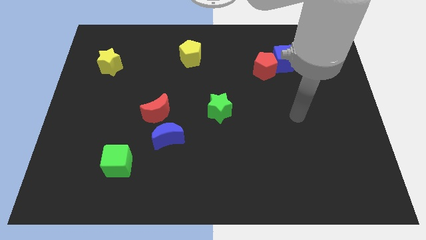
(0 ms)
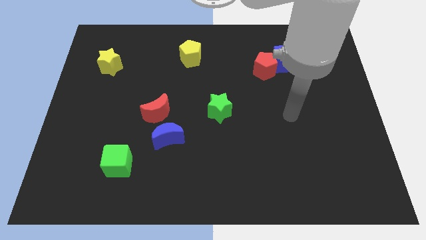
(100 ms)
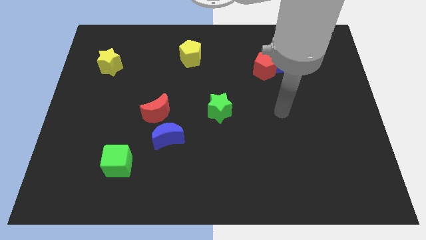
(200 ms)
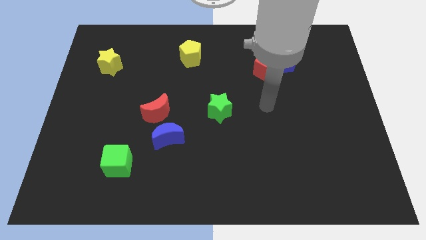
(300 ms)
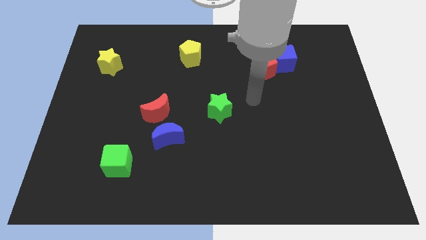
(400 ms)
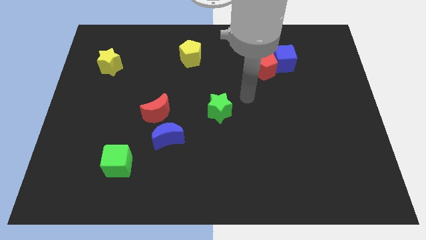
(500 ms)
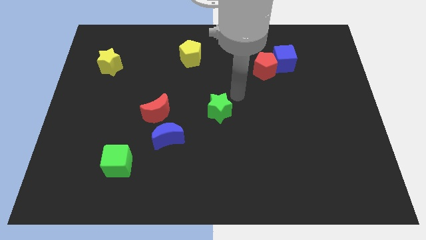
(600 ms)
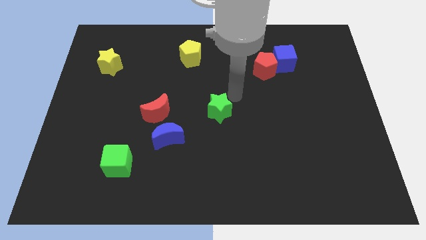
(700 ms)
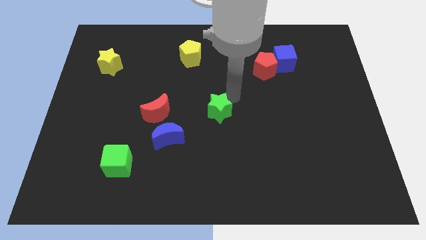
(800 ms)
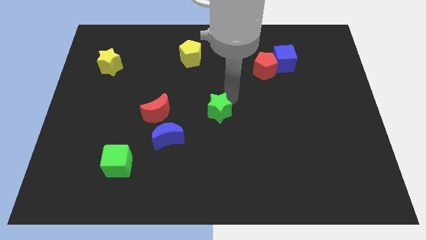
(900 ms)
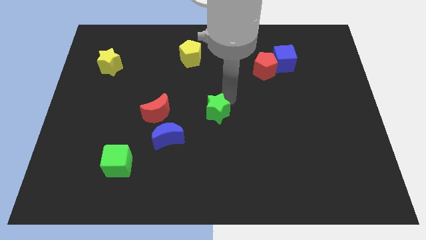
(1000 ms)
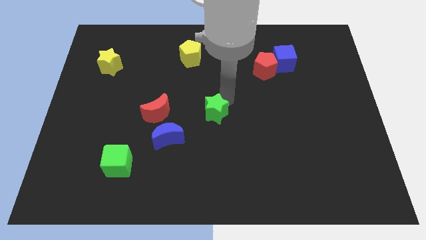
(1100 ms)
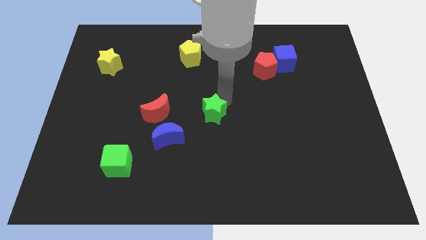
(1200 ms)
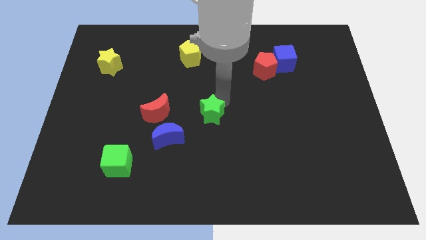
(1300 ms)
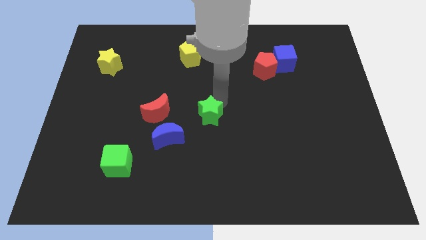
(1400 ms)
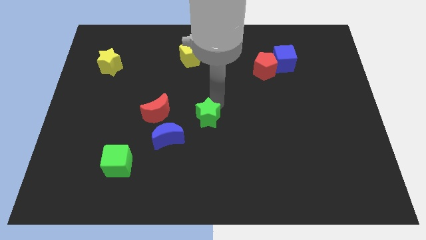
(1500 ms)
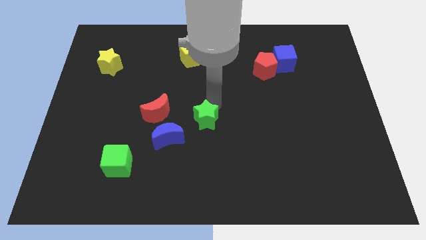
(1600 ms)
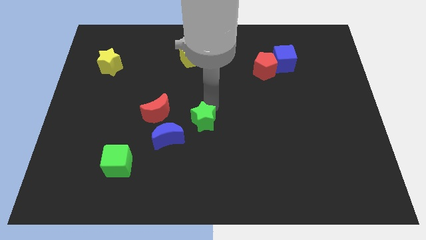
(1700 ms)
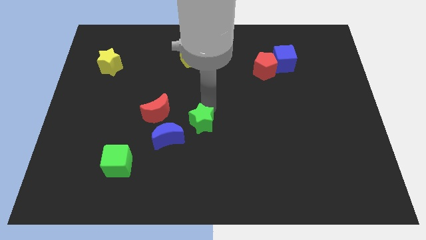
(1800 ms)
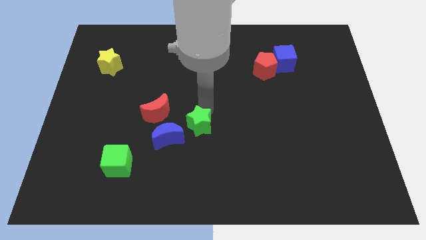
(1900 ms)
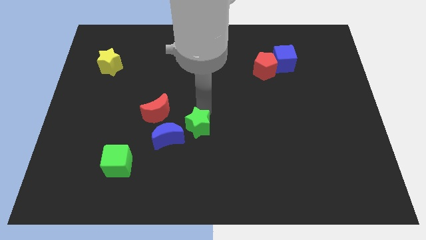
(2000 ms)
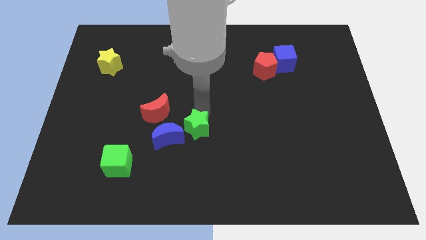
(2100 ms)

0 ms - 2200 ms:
slide the green star down and to the left diagonally slightly

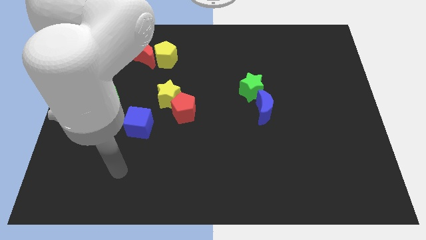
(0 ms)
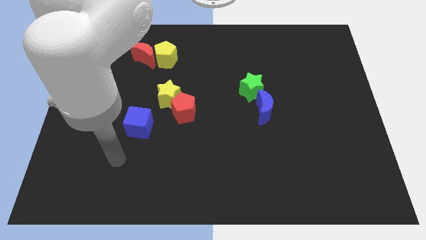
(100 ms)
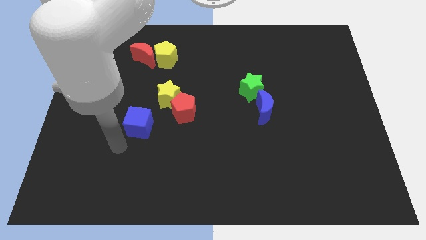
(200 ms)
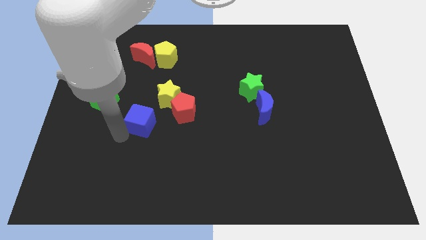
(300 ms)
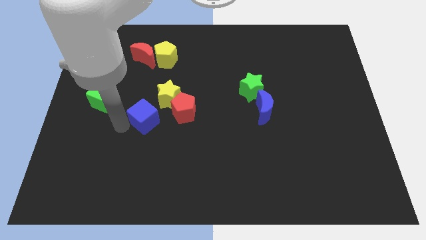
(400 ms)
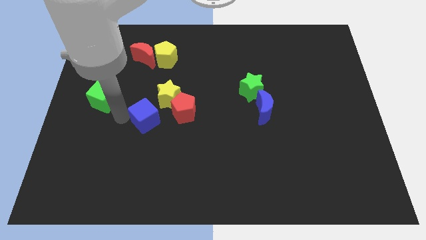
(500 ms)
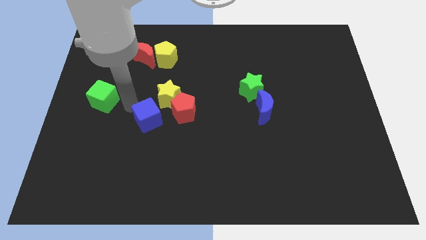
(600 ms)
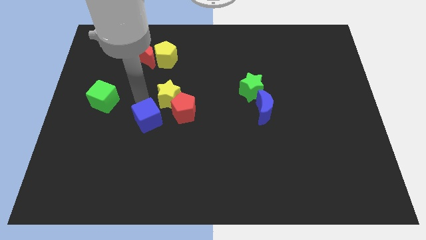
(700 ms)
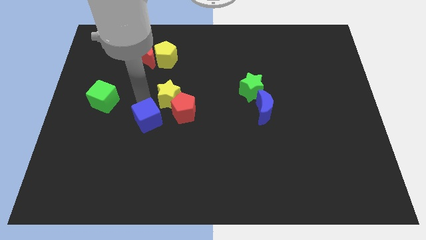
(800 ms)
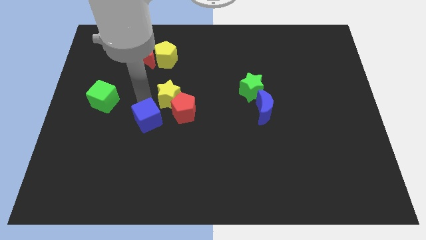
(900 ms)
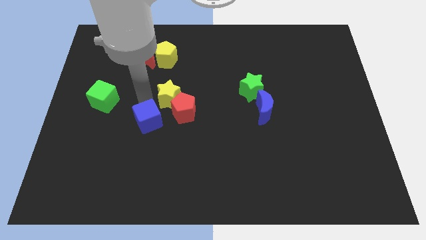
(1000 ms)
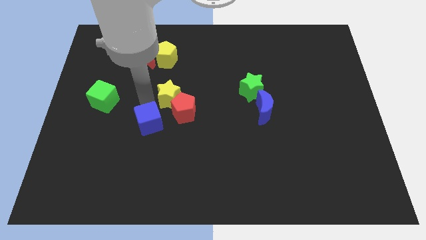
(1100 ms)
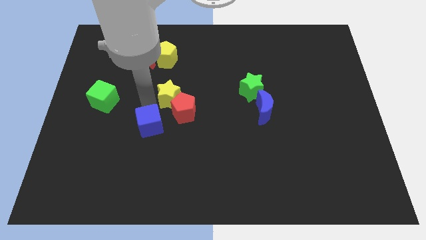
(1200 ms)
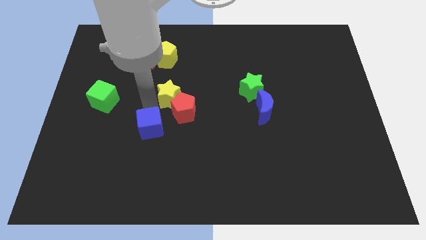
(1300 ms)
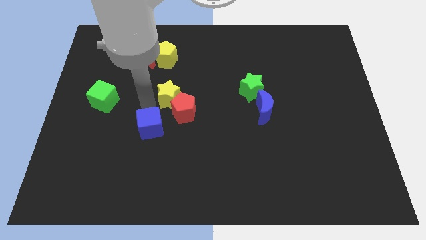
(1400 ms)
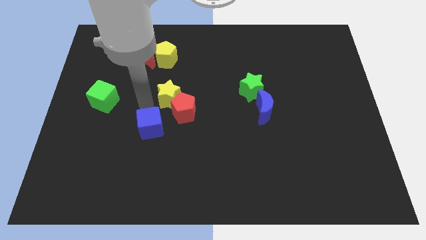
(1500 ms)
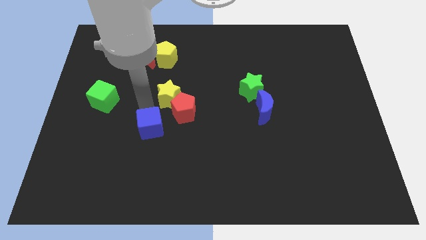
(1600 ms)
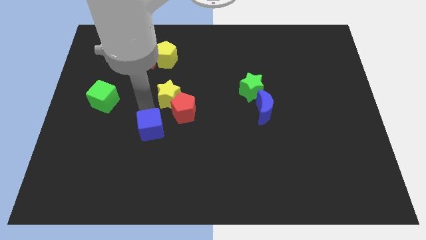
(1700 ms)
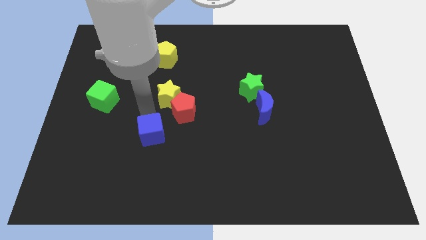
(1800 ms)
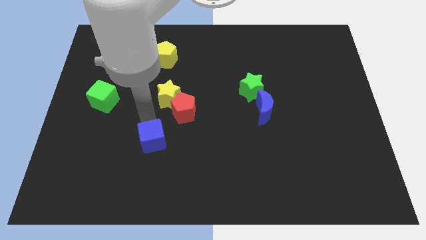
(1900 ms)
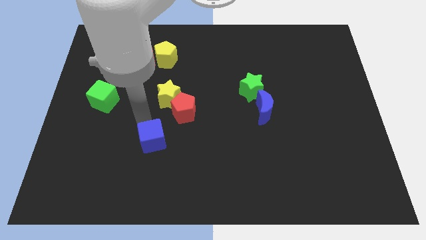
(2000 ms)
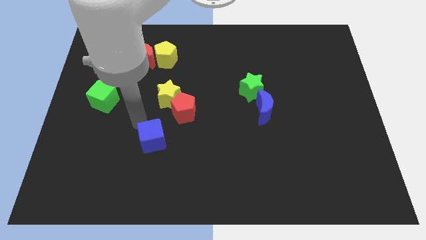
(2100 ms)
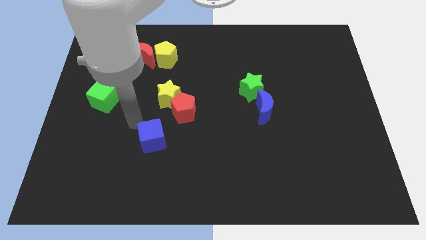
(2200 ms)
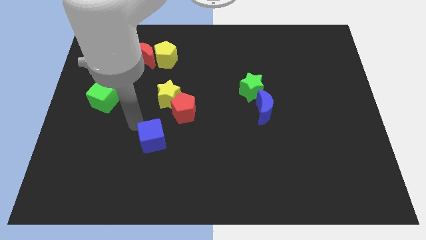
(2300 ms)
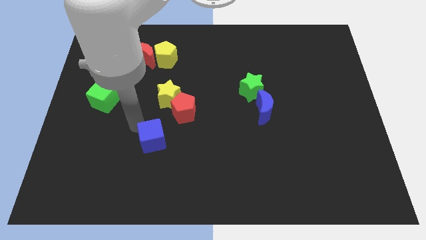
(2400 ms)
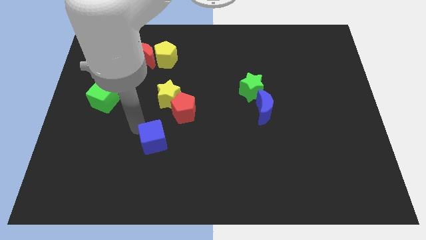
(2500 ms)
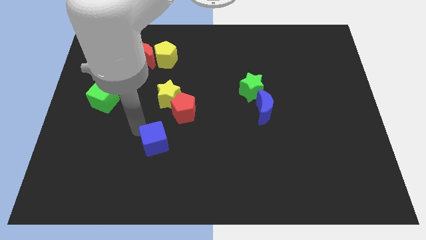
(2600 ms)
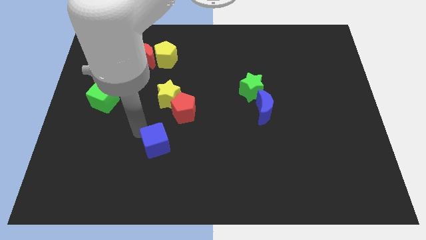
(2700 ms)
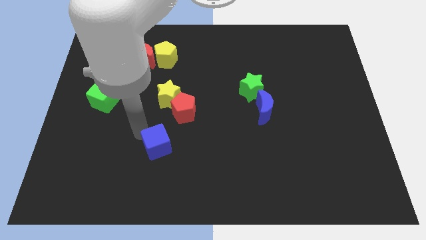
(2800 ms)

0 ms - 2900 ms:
slightly move the blue cube downwards and right diagonally

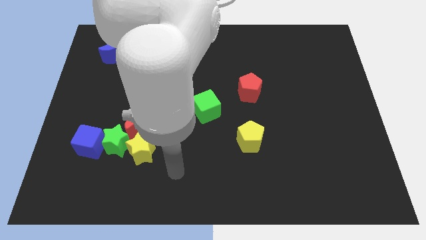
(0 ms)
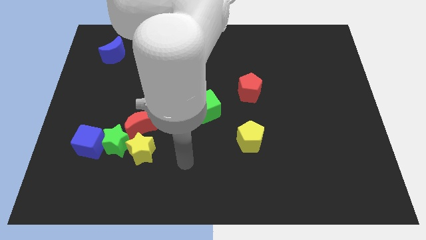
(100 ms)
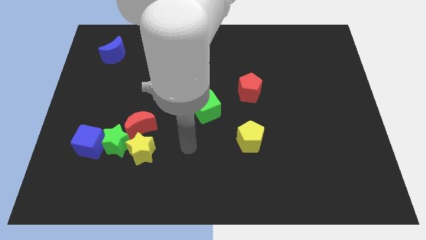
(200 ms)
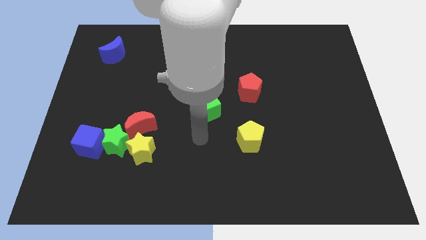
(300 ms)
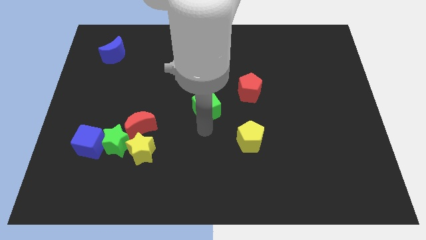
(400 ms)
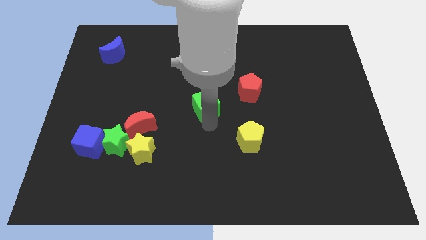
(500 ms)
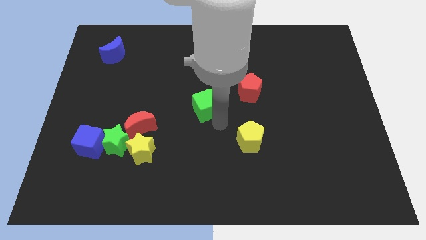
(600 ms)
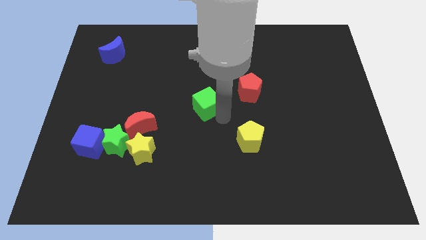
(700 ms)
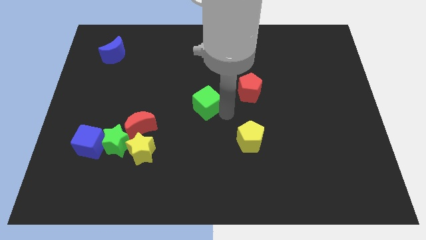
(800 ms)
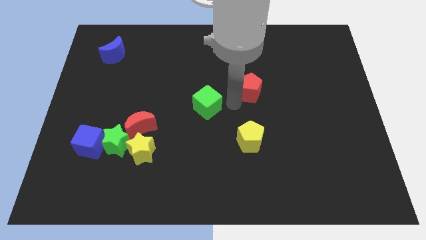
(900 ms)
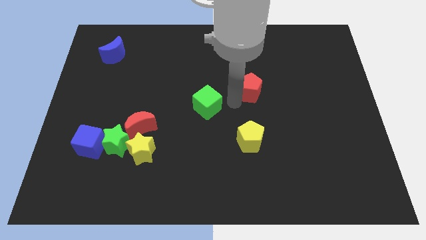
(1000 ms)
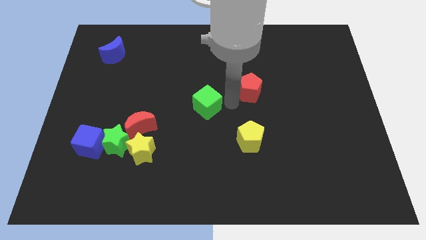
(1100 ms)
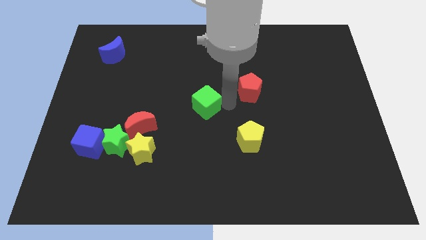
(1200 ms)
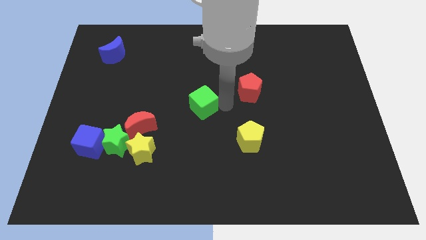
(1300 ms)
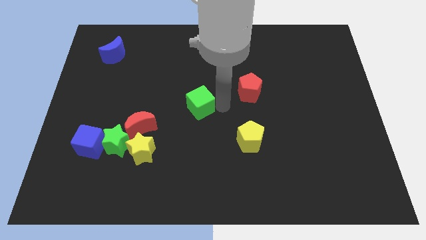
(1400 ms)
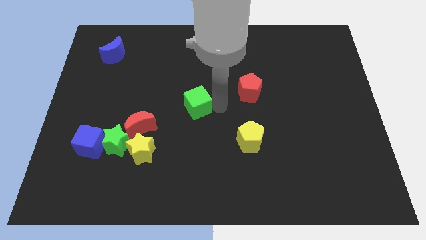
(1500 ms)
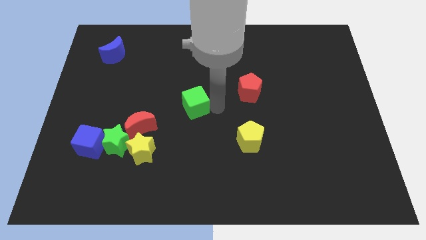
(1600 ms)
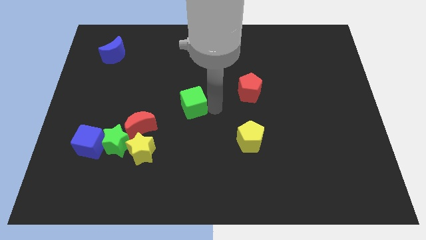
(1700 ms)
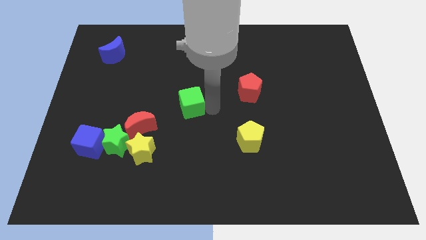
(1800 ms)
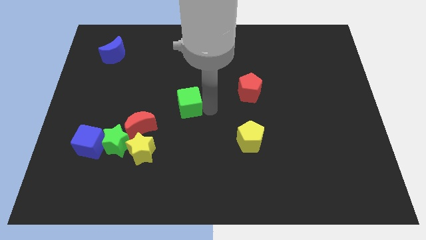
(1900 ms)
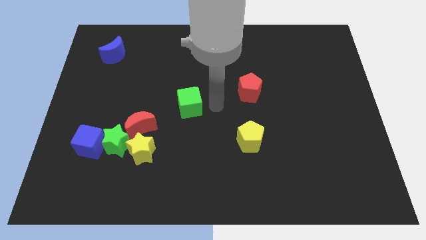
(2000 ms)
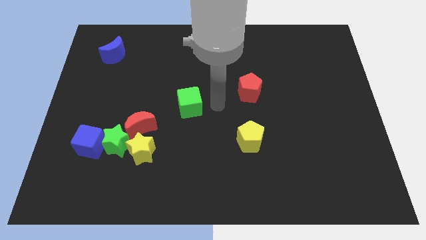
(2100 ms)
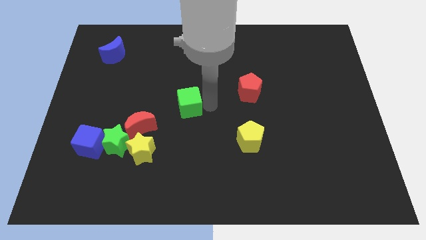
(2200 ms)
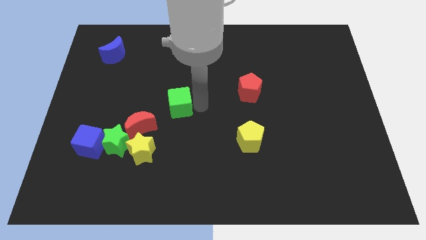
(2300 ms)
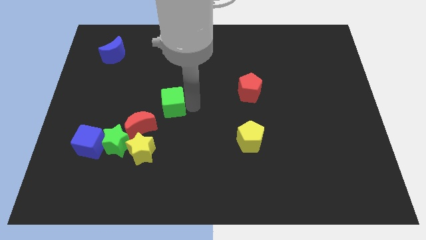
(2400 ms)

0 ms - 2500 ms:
slightly push the green cube left

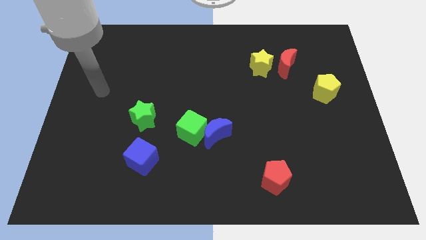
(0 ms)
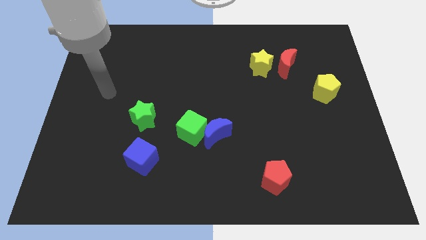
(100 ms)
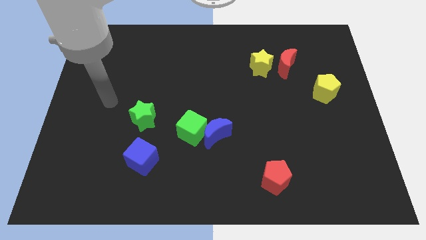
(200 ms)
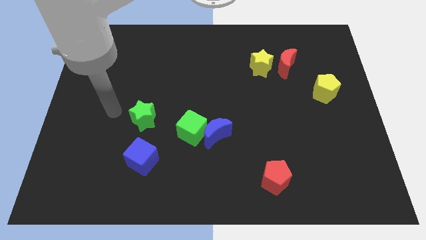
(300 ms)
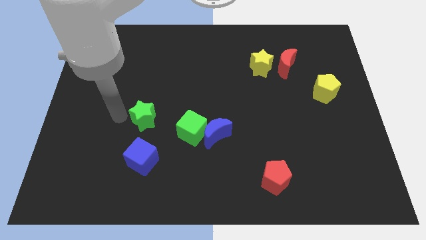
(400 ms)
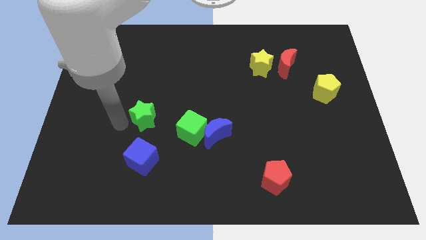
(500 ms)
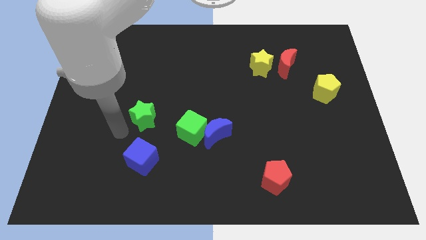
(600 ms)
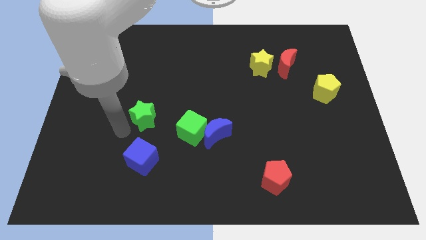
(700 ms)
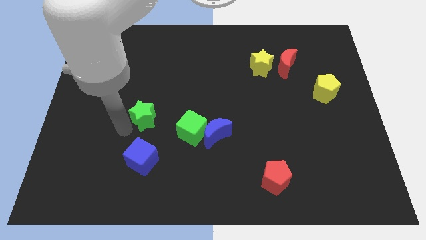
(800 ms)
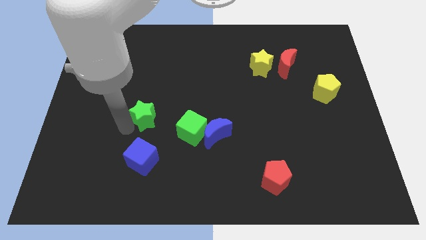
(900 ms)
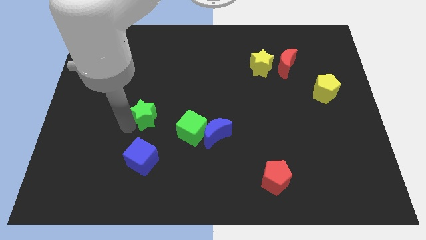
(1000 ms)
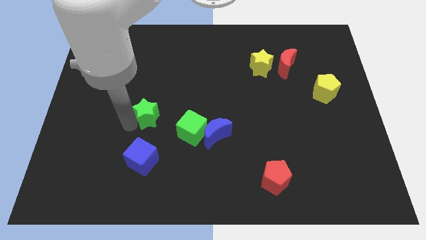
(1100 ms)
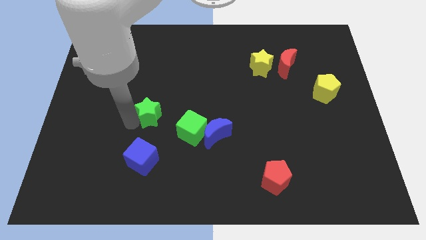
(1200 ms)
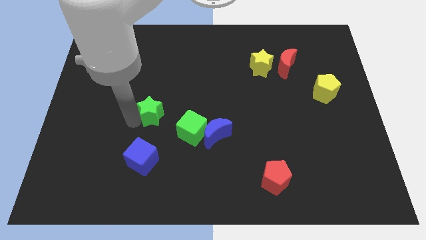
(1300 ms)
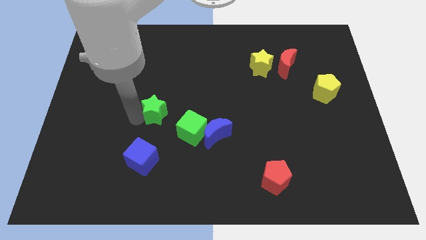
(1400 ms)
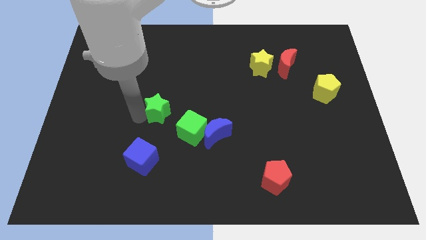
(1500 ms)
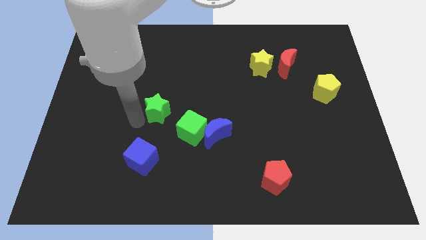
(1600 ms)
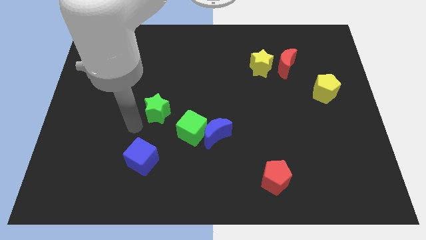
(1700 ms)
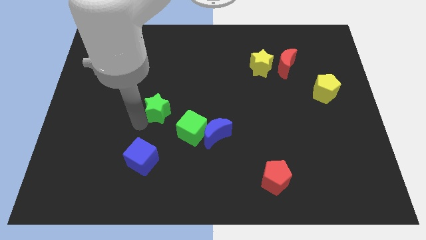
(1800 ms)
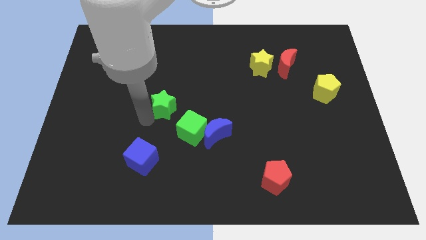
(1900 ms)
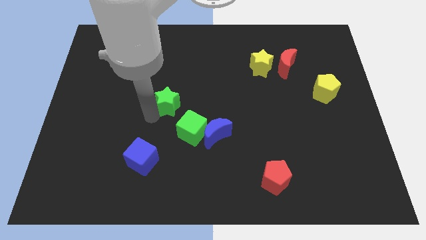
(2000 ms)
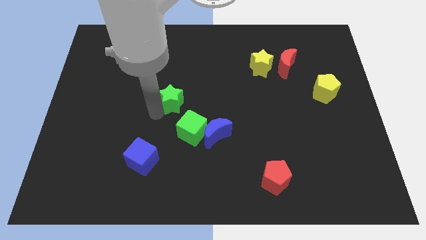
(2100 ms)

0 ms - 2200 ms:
slightly slide the green star up and then to the right
